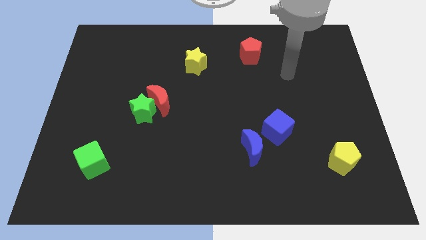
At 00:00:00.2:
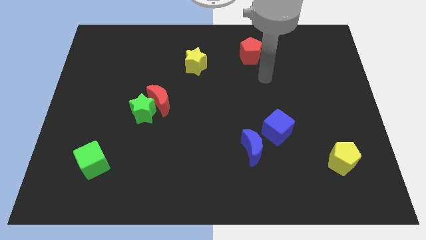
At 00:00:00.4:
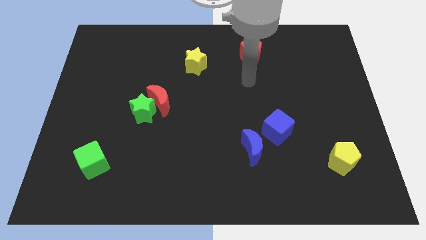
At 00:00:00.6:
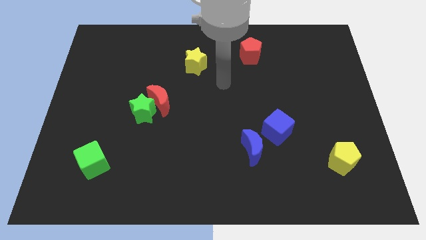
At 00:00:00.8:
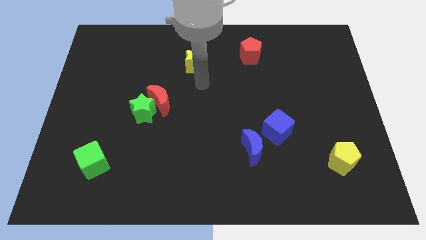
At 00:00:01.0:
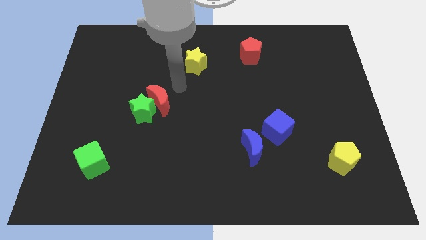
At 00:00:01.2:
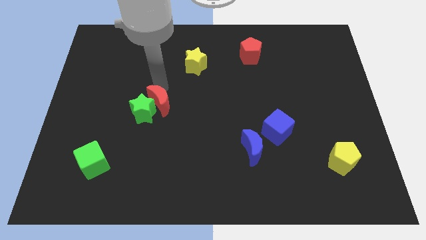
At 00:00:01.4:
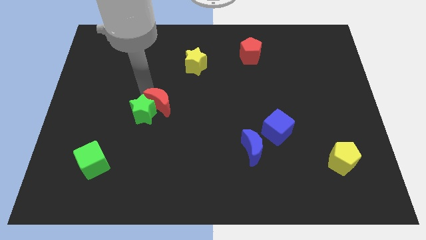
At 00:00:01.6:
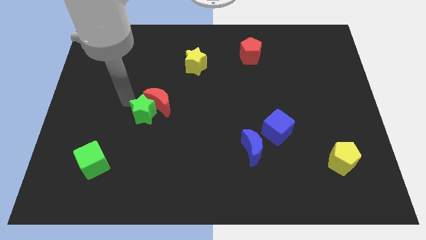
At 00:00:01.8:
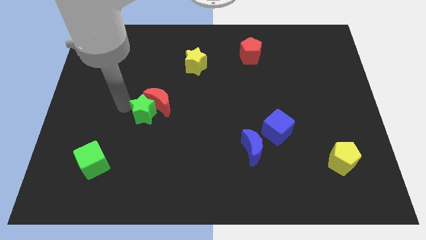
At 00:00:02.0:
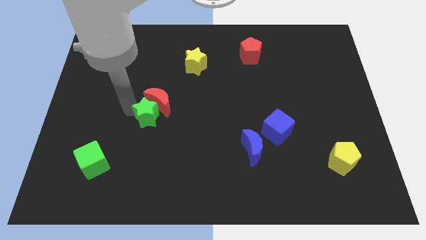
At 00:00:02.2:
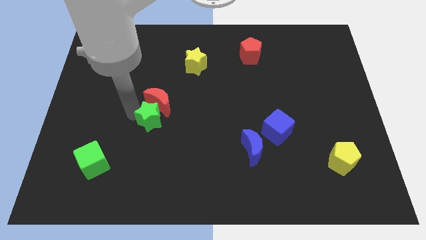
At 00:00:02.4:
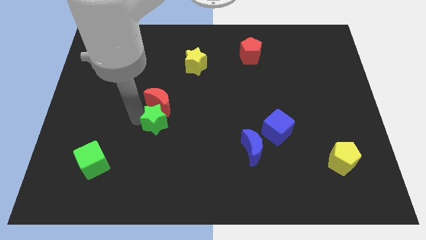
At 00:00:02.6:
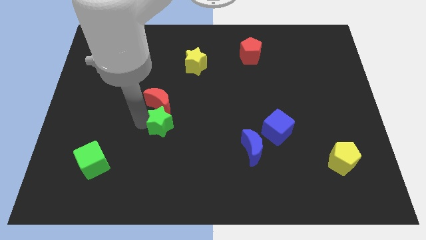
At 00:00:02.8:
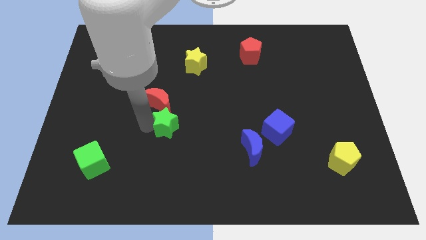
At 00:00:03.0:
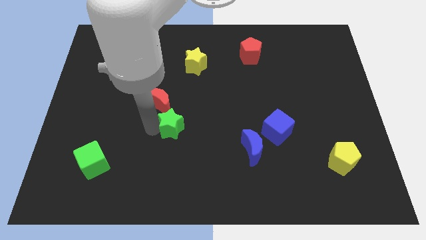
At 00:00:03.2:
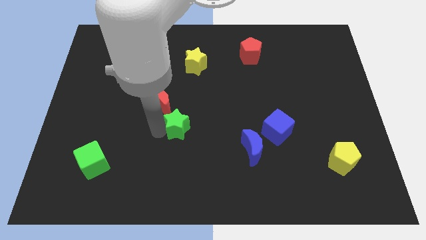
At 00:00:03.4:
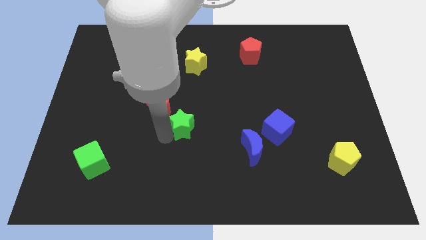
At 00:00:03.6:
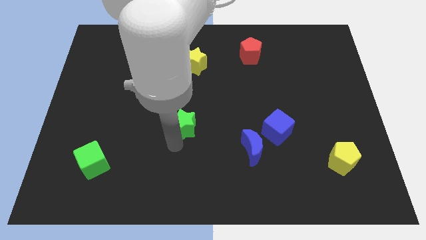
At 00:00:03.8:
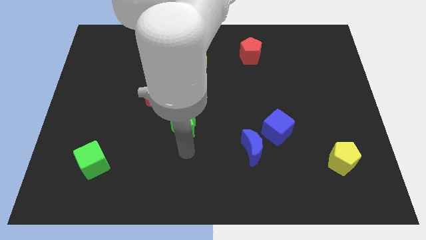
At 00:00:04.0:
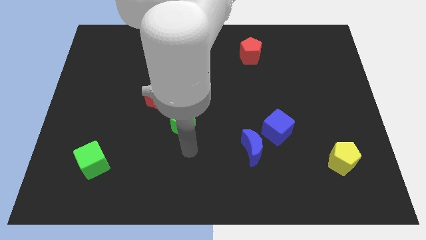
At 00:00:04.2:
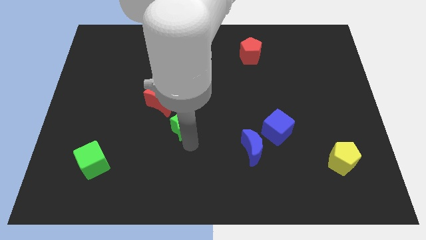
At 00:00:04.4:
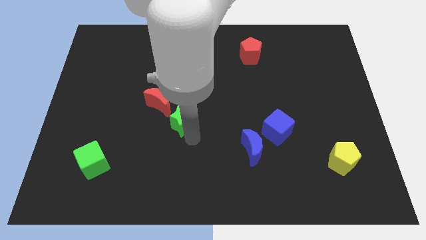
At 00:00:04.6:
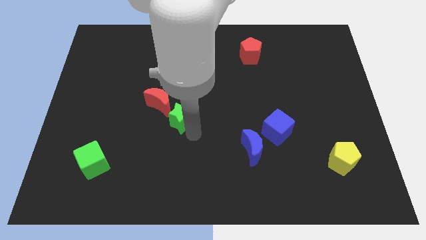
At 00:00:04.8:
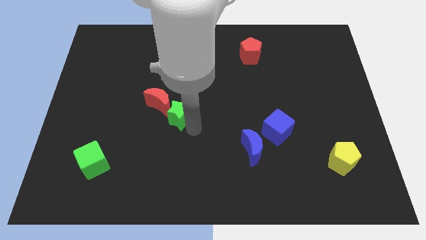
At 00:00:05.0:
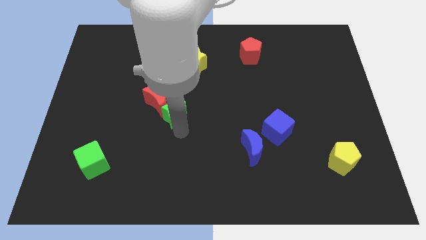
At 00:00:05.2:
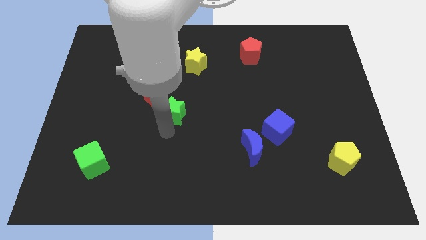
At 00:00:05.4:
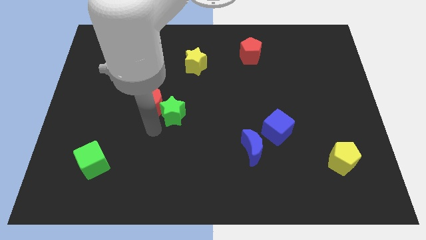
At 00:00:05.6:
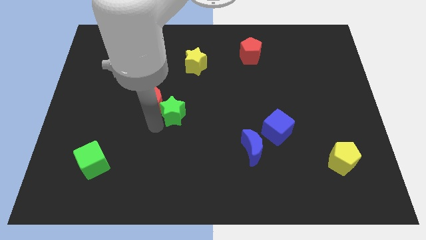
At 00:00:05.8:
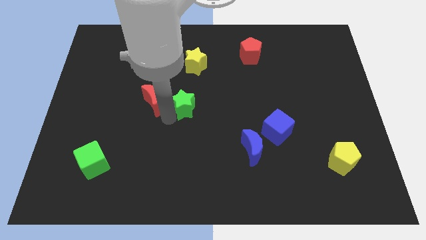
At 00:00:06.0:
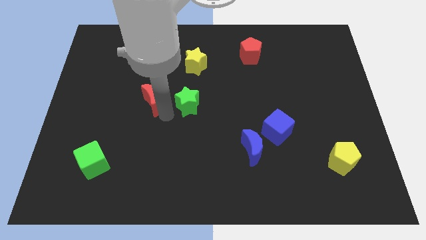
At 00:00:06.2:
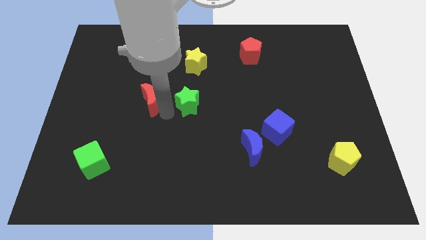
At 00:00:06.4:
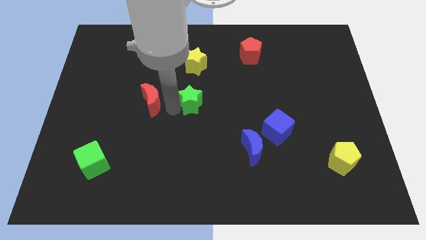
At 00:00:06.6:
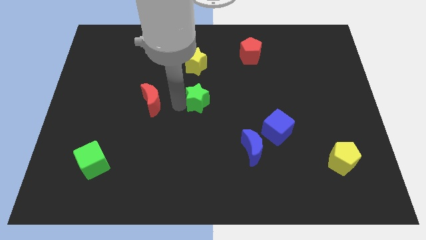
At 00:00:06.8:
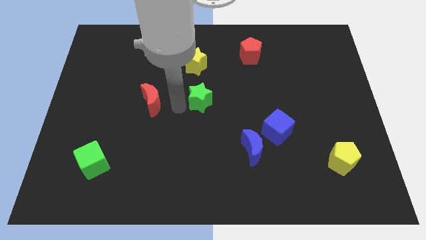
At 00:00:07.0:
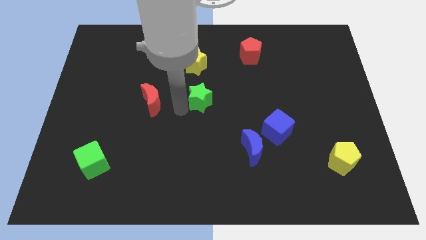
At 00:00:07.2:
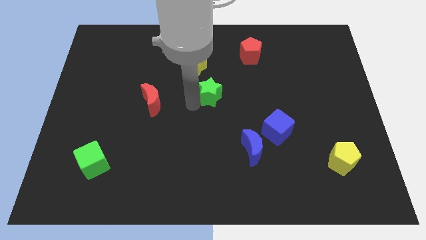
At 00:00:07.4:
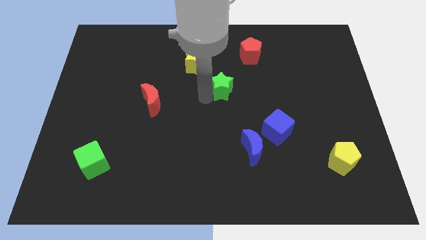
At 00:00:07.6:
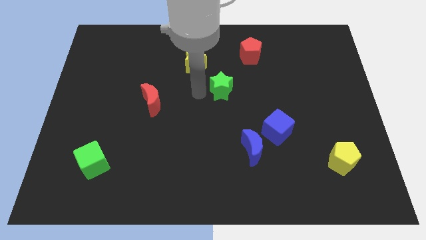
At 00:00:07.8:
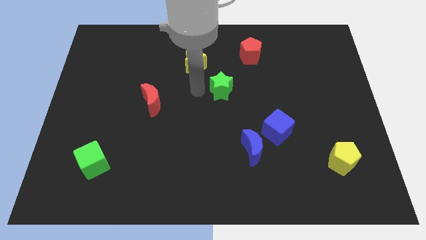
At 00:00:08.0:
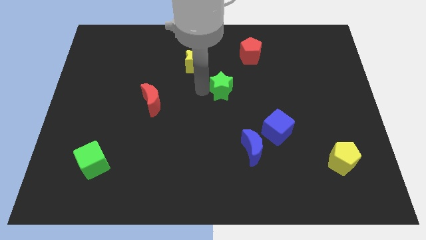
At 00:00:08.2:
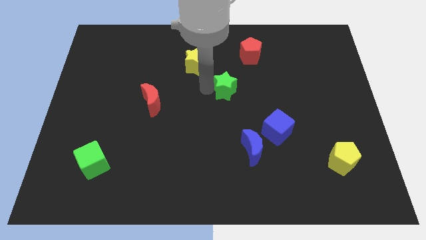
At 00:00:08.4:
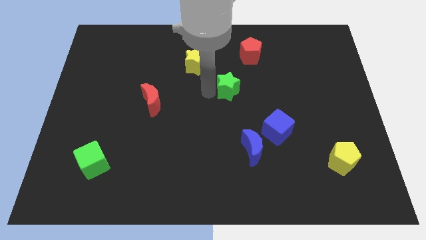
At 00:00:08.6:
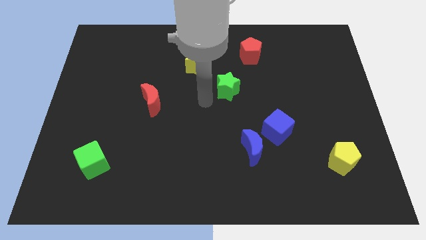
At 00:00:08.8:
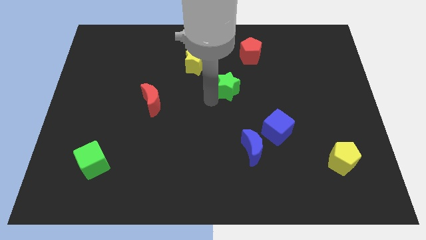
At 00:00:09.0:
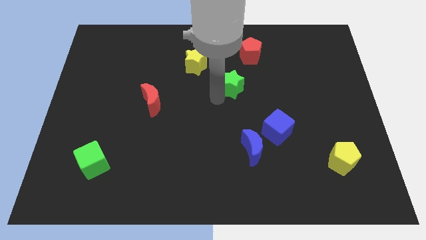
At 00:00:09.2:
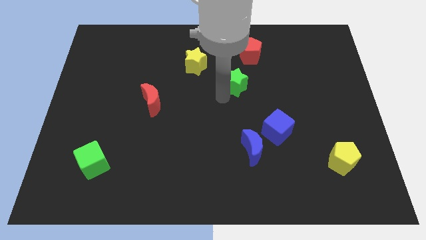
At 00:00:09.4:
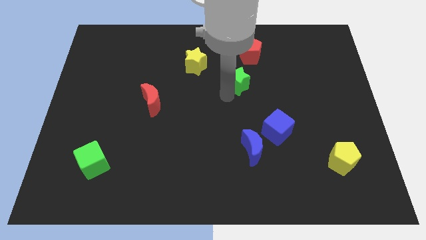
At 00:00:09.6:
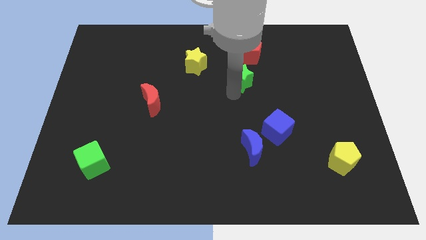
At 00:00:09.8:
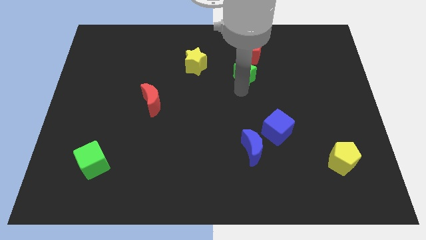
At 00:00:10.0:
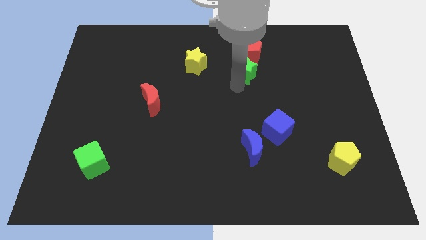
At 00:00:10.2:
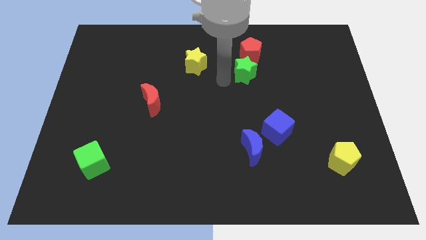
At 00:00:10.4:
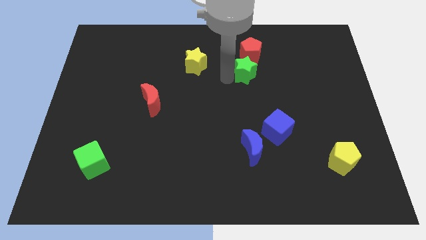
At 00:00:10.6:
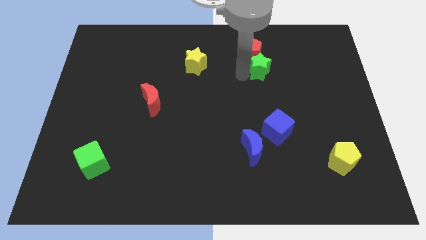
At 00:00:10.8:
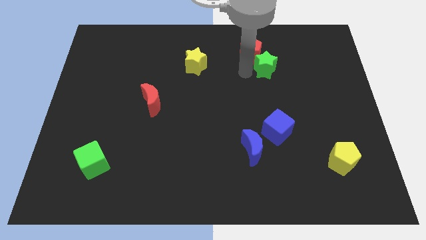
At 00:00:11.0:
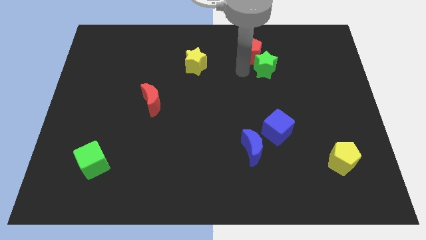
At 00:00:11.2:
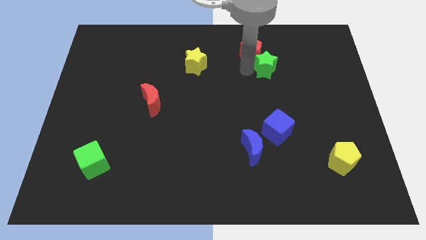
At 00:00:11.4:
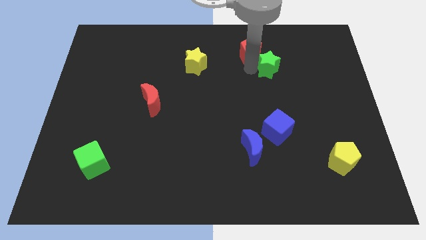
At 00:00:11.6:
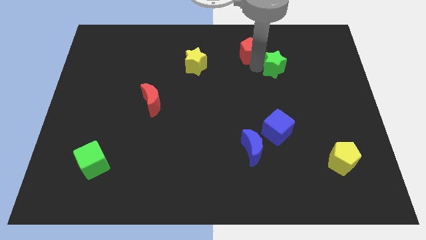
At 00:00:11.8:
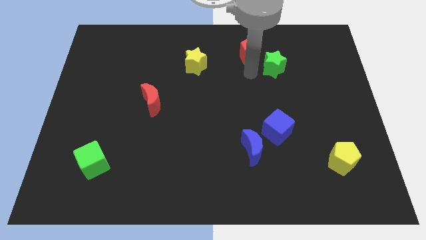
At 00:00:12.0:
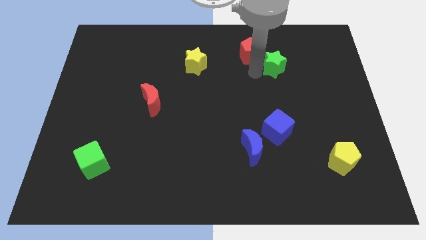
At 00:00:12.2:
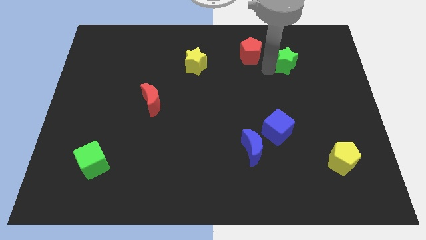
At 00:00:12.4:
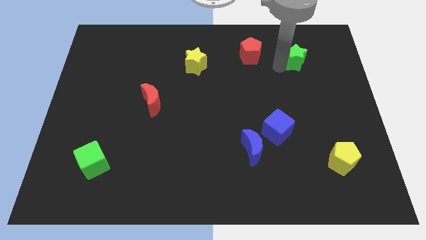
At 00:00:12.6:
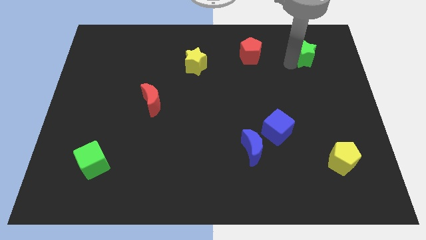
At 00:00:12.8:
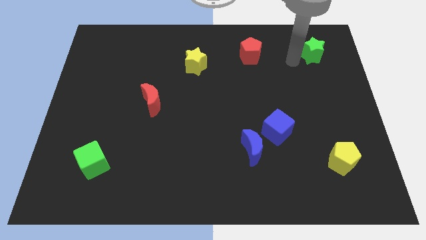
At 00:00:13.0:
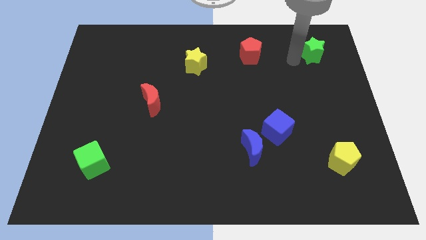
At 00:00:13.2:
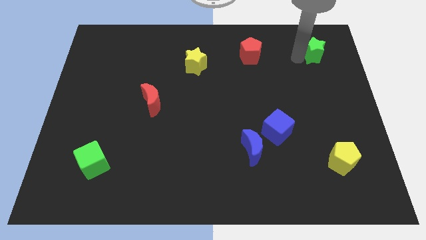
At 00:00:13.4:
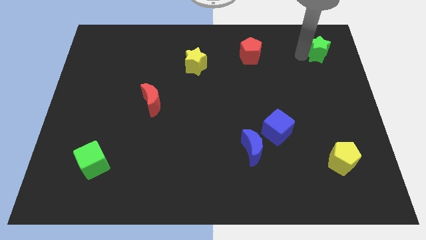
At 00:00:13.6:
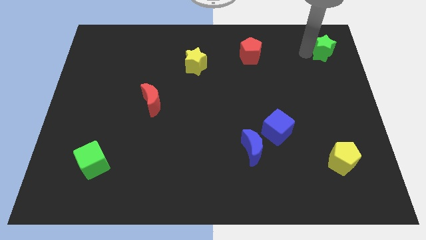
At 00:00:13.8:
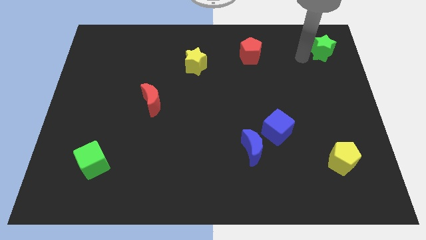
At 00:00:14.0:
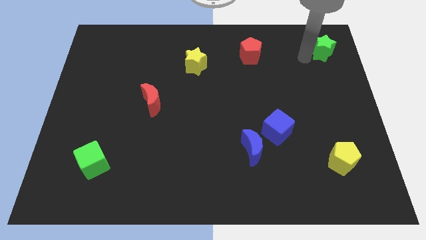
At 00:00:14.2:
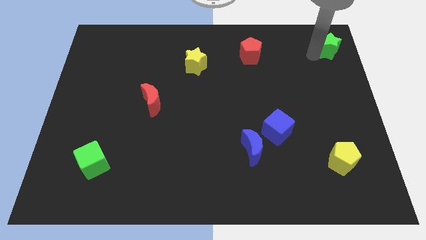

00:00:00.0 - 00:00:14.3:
put the green star to the top right
